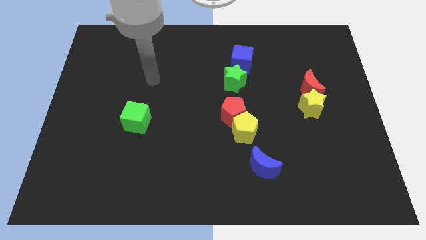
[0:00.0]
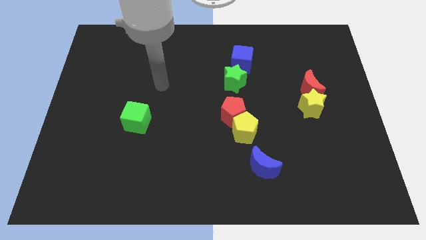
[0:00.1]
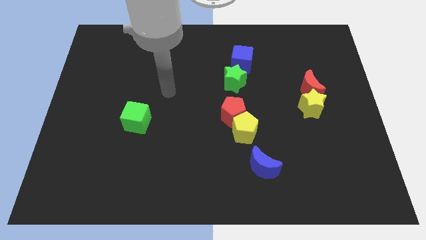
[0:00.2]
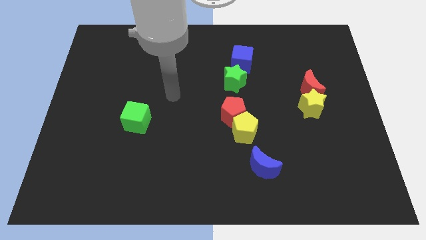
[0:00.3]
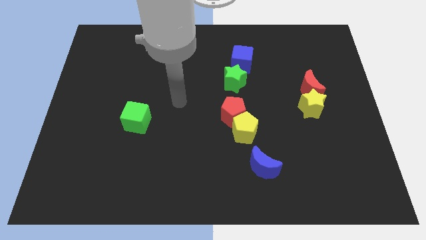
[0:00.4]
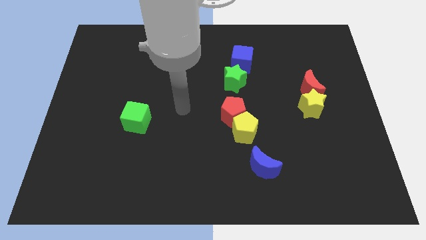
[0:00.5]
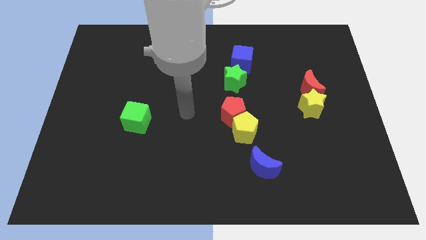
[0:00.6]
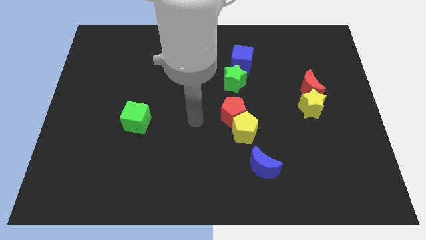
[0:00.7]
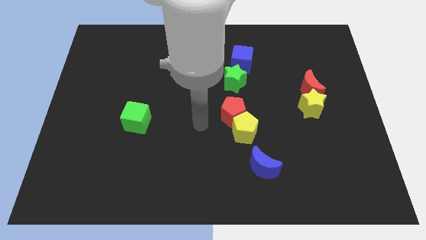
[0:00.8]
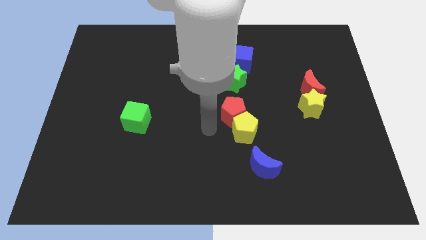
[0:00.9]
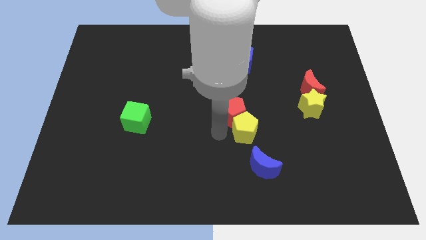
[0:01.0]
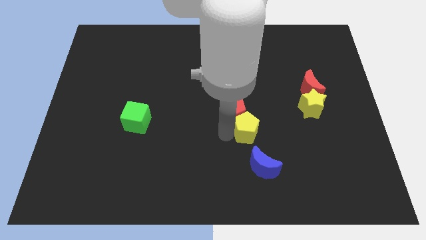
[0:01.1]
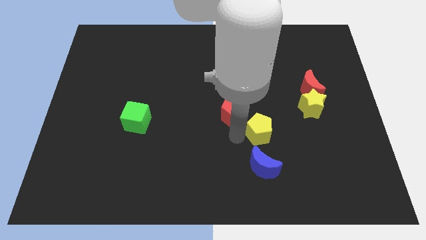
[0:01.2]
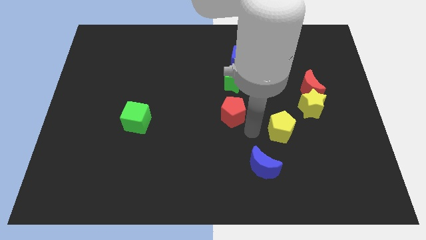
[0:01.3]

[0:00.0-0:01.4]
move the red pentagon away from the yellow pentagon

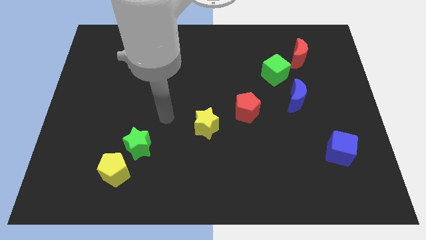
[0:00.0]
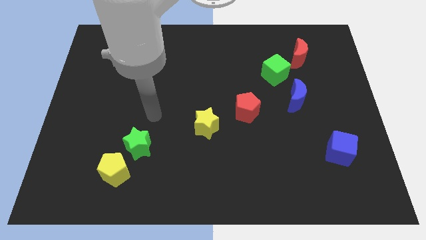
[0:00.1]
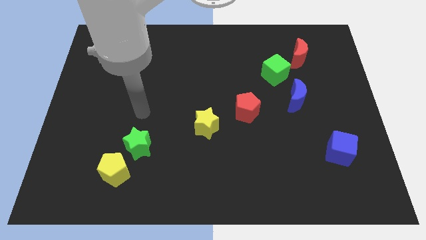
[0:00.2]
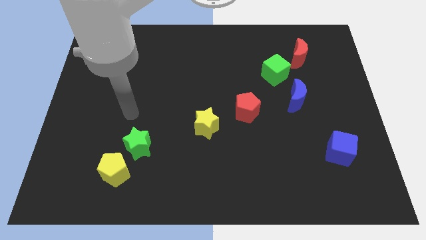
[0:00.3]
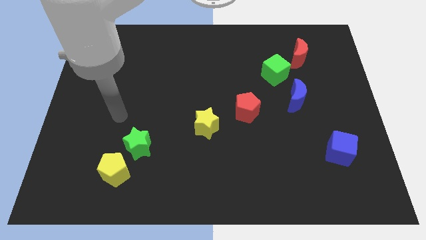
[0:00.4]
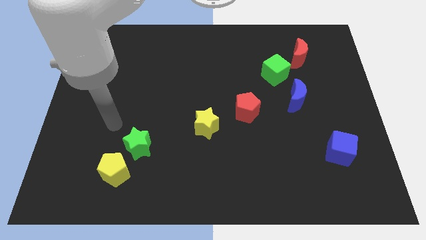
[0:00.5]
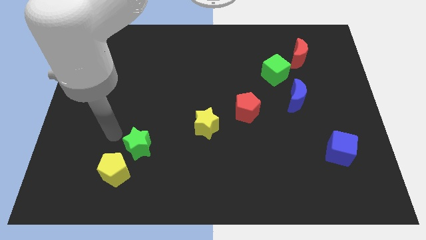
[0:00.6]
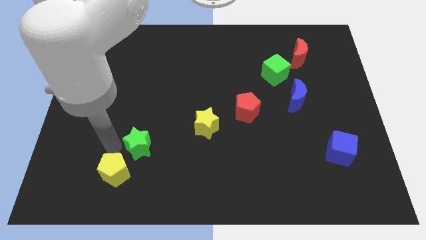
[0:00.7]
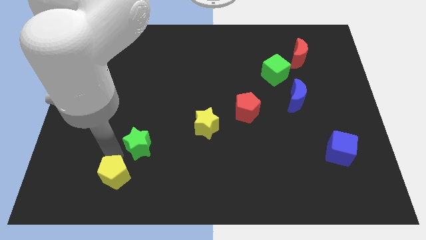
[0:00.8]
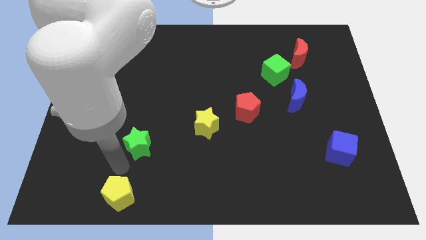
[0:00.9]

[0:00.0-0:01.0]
move the green star away from the yellow pentagon

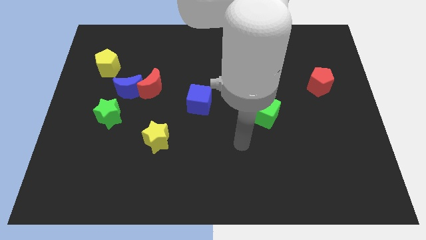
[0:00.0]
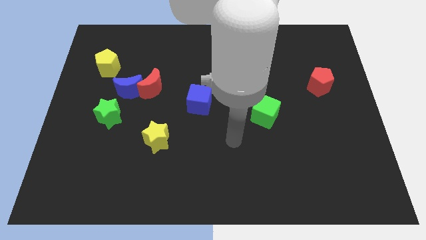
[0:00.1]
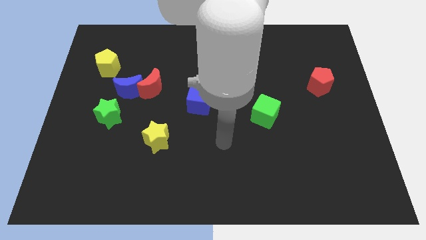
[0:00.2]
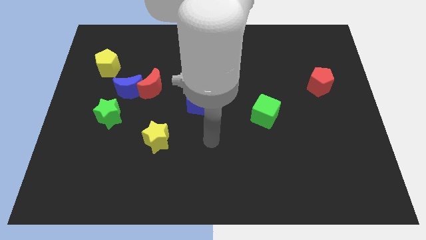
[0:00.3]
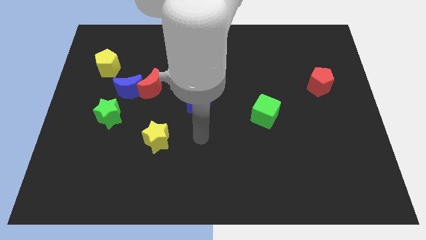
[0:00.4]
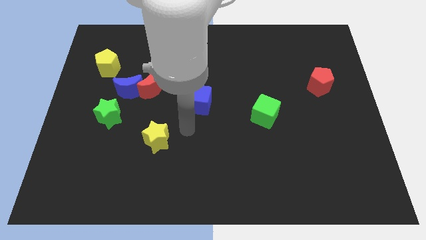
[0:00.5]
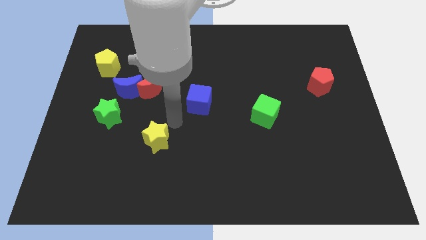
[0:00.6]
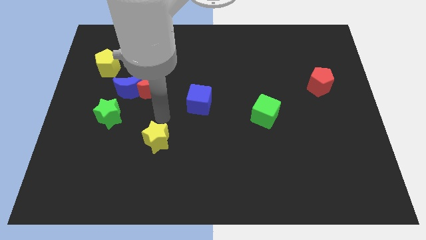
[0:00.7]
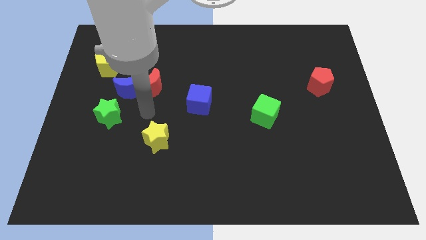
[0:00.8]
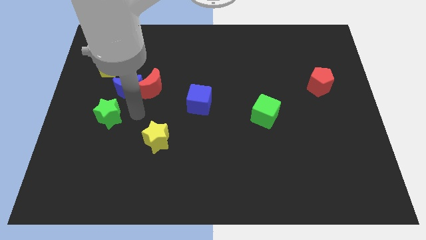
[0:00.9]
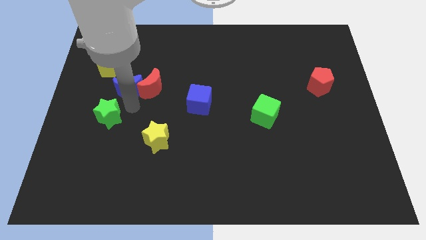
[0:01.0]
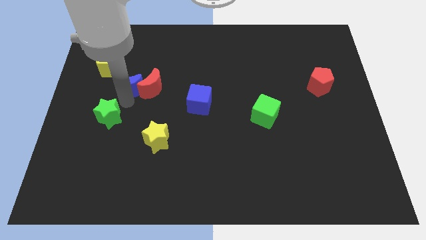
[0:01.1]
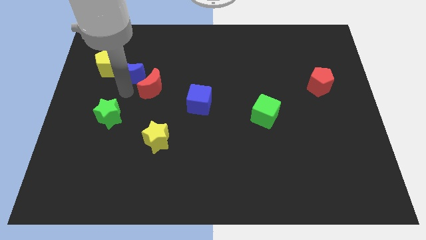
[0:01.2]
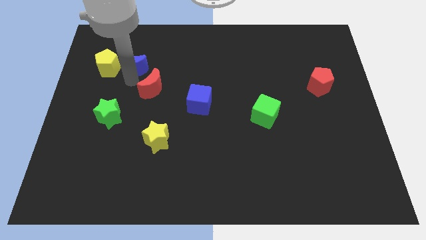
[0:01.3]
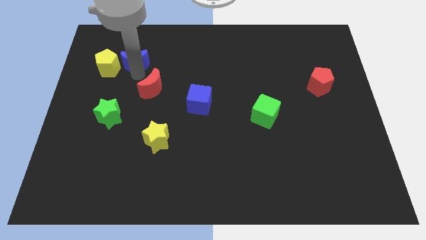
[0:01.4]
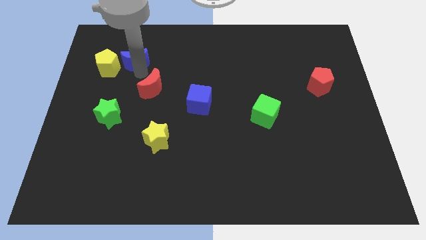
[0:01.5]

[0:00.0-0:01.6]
move the red moon away from the blue moon

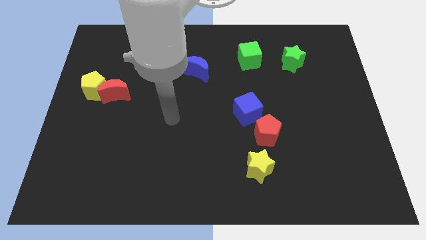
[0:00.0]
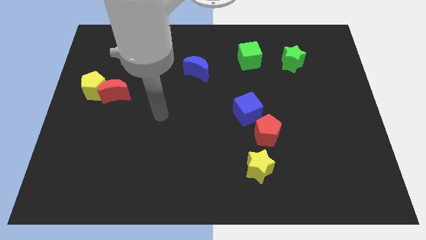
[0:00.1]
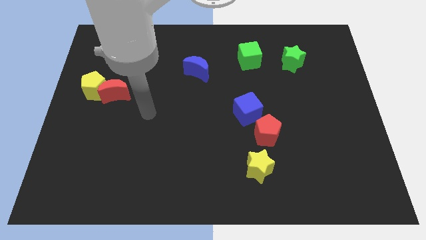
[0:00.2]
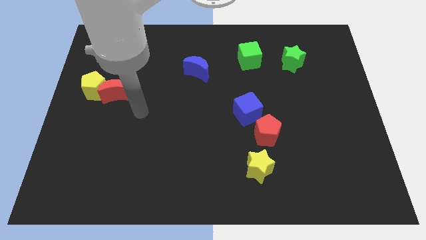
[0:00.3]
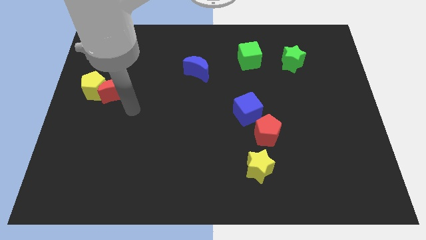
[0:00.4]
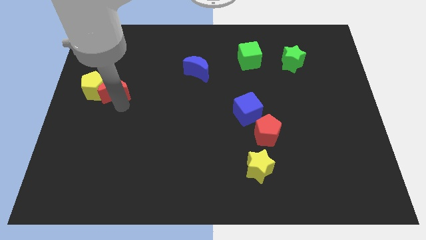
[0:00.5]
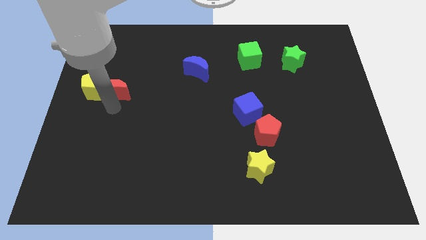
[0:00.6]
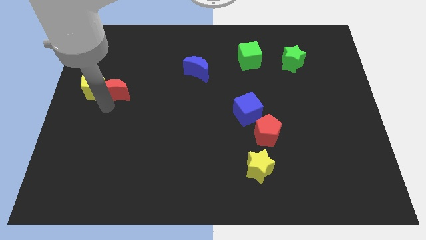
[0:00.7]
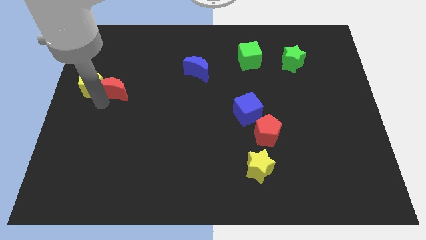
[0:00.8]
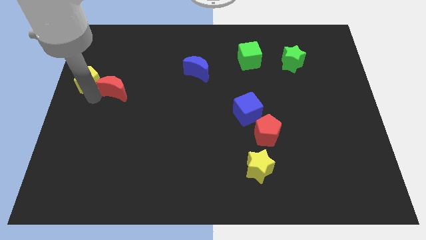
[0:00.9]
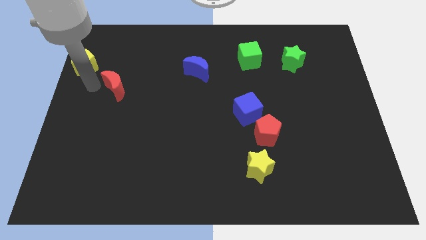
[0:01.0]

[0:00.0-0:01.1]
separate the red moon from the yellow pentagon

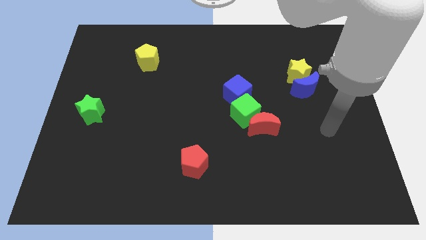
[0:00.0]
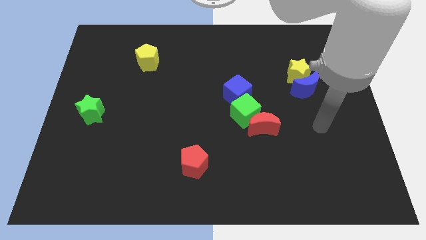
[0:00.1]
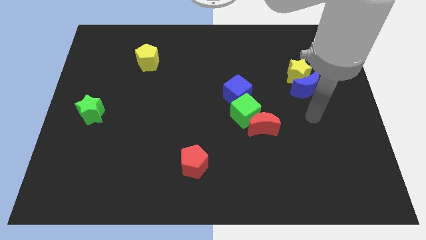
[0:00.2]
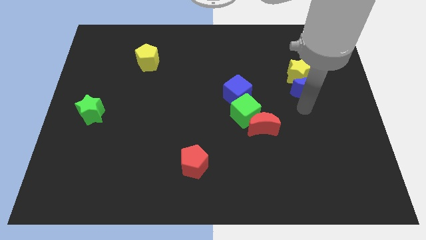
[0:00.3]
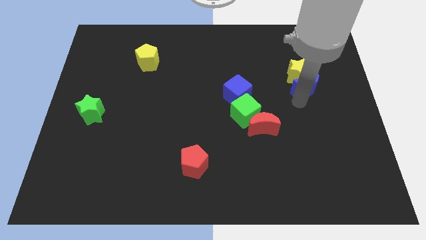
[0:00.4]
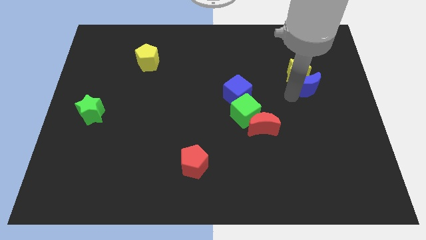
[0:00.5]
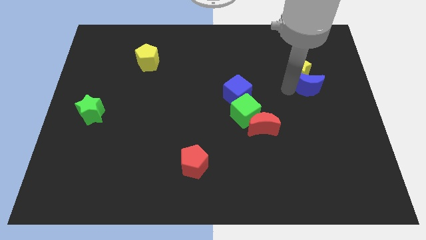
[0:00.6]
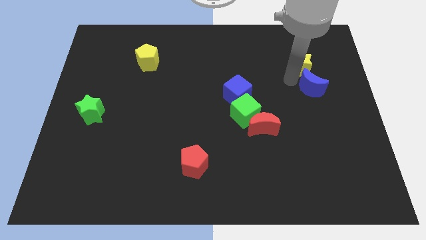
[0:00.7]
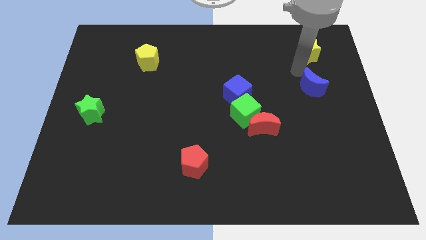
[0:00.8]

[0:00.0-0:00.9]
separate the blue moon from the yellow star

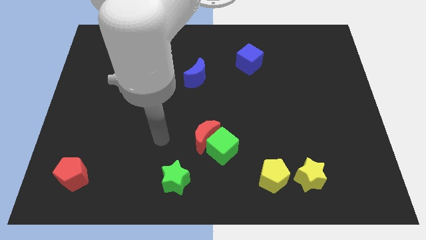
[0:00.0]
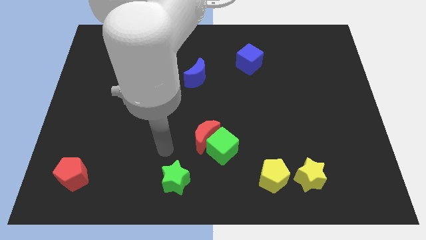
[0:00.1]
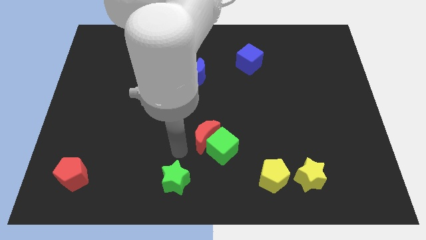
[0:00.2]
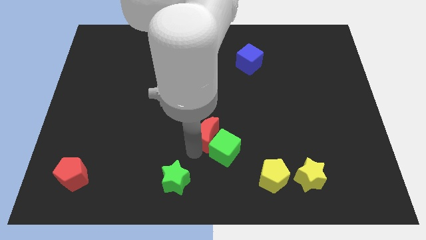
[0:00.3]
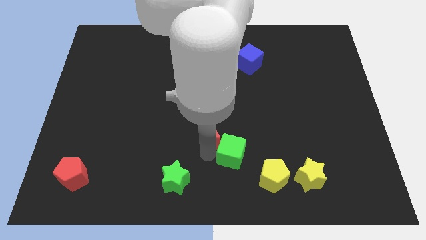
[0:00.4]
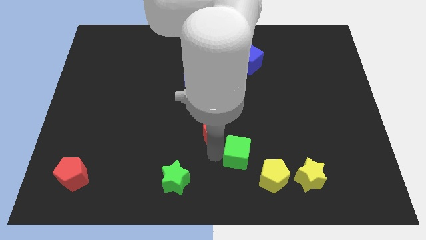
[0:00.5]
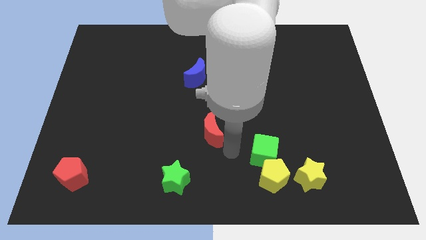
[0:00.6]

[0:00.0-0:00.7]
pull the red moon apart from the green cube

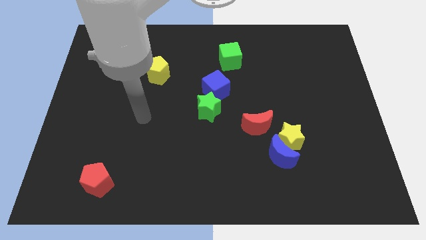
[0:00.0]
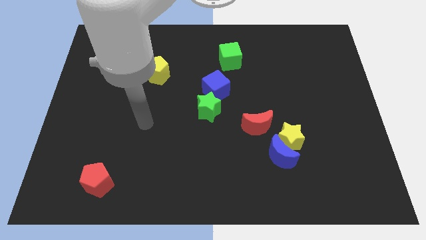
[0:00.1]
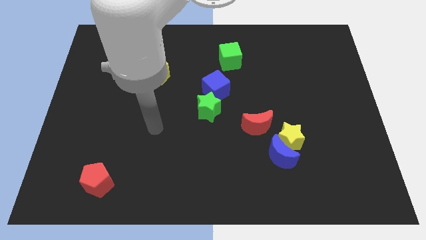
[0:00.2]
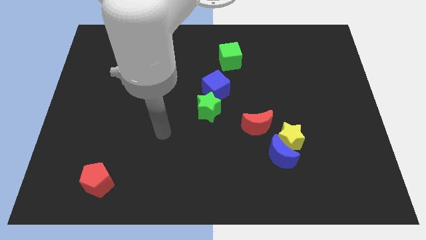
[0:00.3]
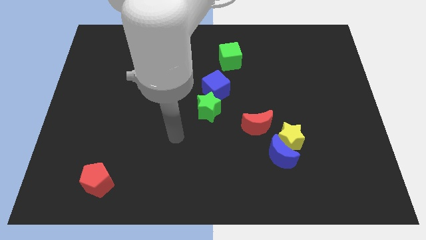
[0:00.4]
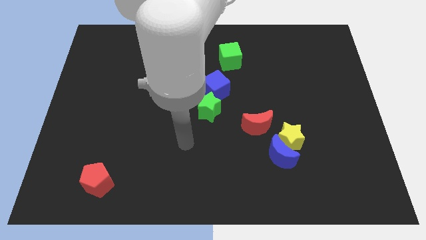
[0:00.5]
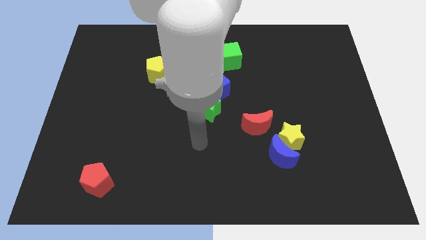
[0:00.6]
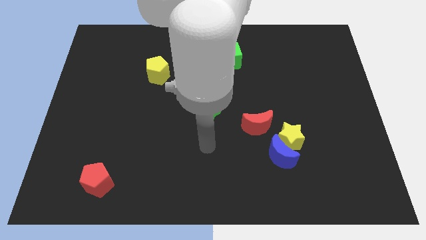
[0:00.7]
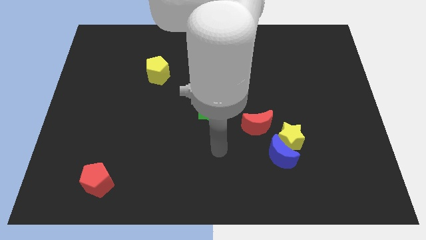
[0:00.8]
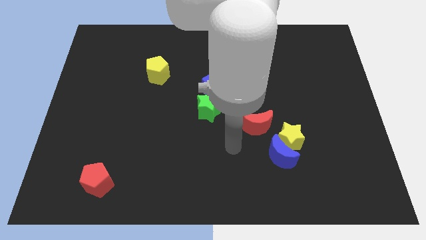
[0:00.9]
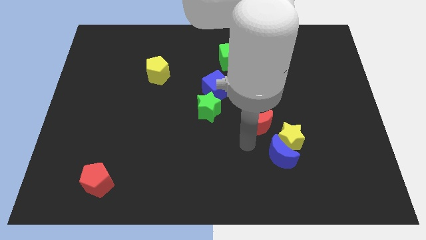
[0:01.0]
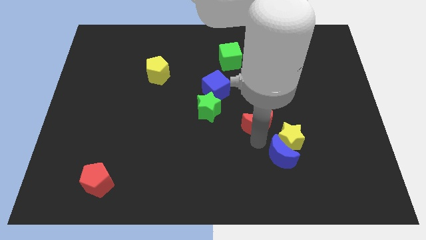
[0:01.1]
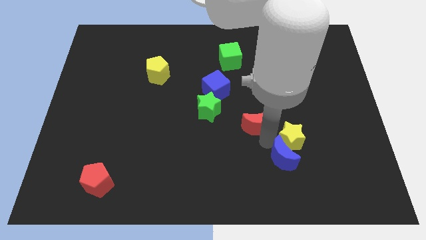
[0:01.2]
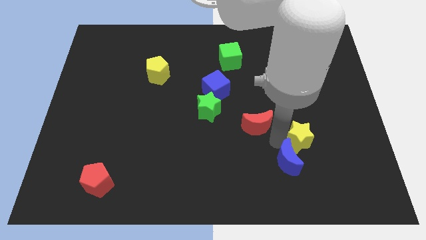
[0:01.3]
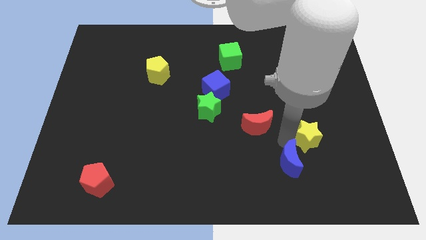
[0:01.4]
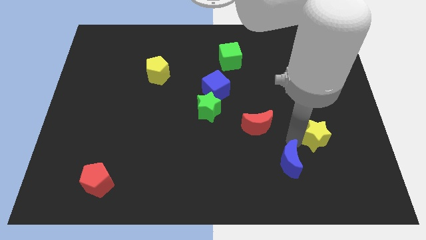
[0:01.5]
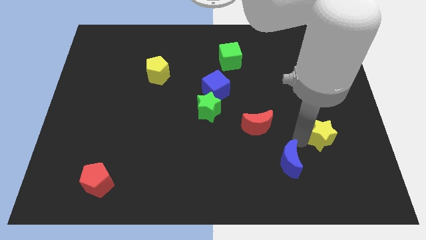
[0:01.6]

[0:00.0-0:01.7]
move the yellow star away from the blue moon and red moon

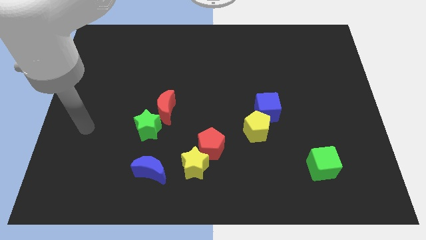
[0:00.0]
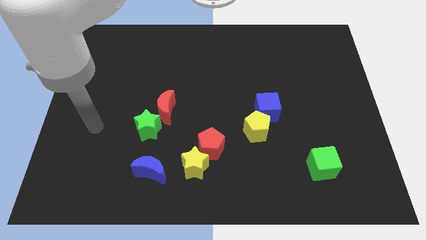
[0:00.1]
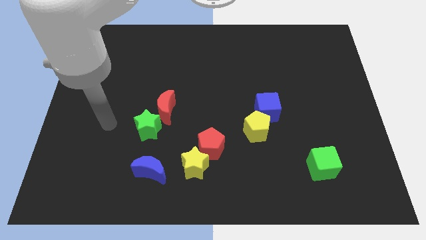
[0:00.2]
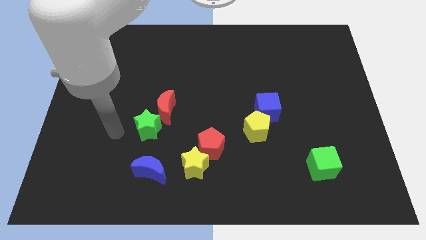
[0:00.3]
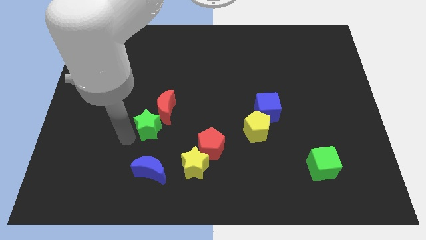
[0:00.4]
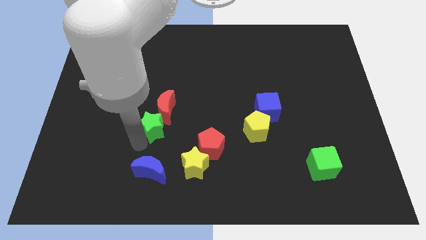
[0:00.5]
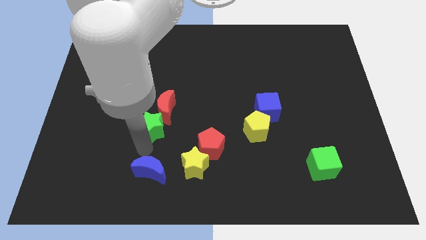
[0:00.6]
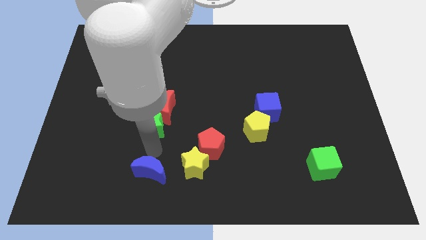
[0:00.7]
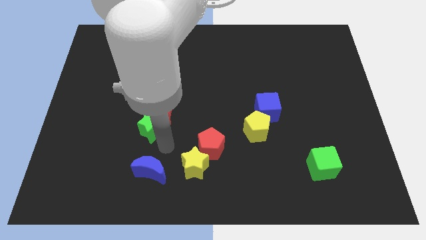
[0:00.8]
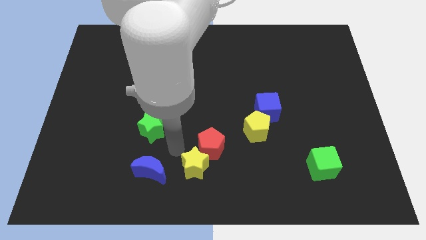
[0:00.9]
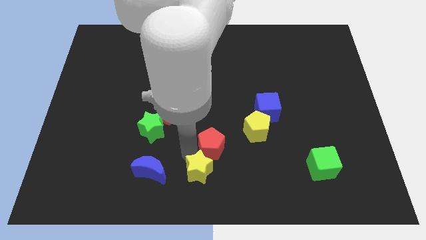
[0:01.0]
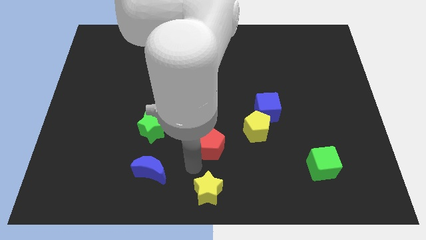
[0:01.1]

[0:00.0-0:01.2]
pull the red pentagon apart from the yellow star
